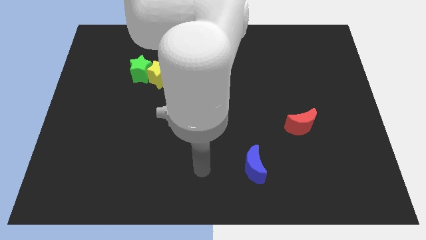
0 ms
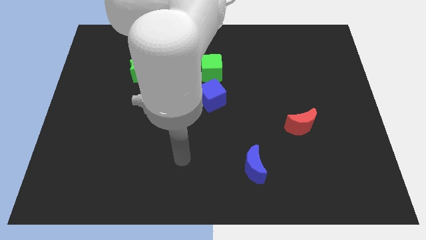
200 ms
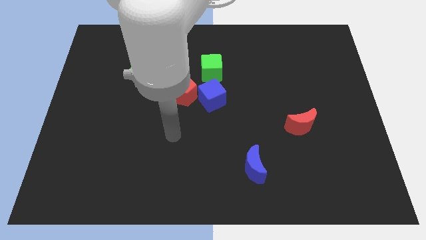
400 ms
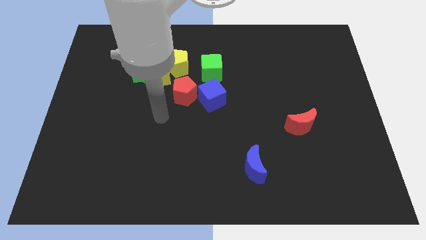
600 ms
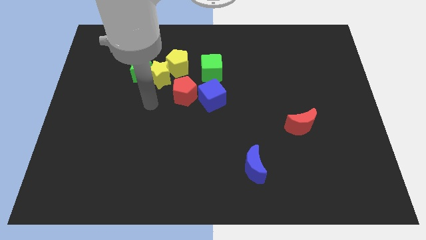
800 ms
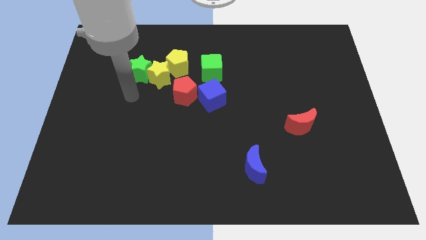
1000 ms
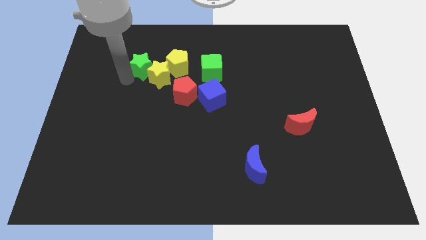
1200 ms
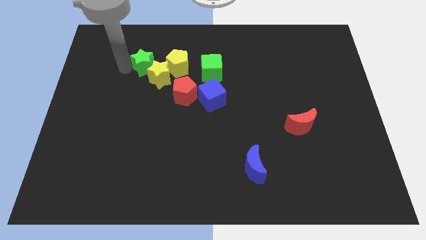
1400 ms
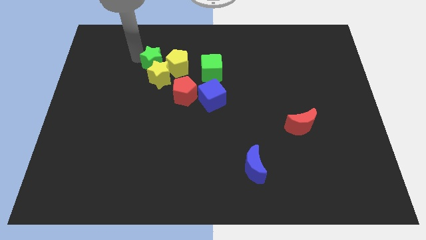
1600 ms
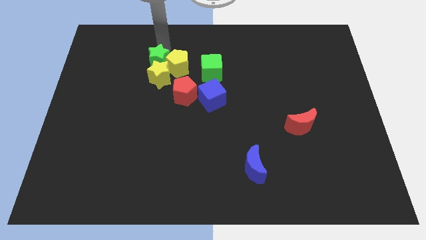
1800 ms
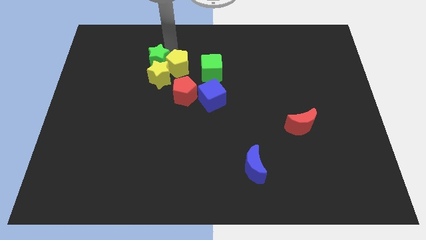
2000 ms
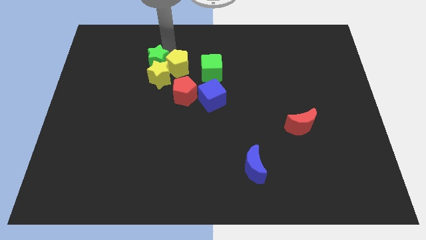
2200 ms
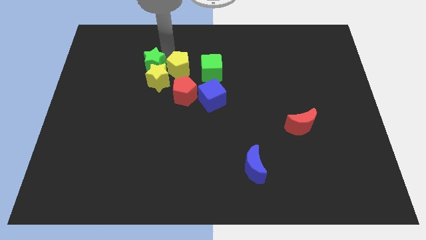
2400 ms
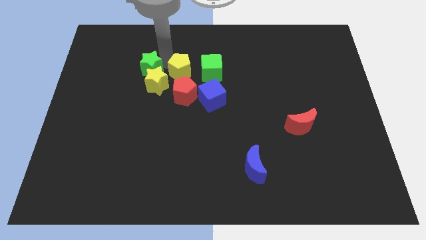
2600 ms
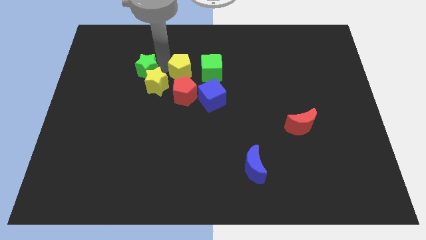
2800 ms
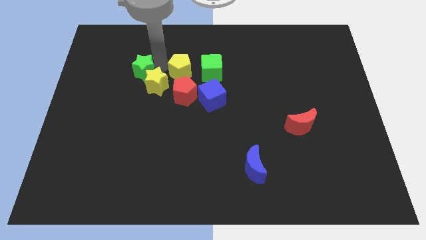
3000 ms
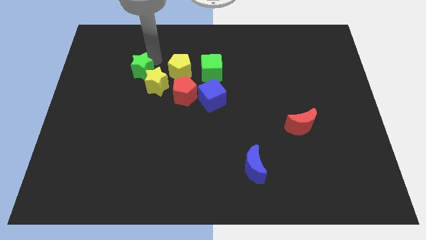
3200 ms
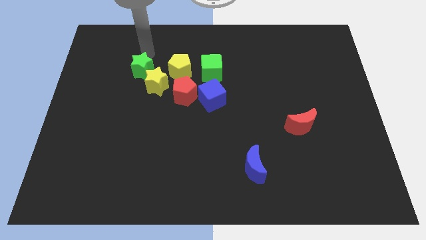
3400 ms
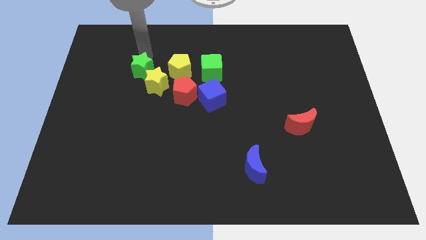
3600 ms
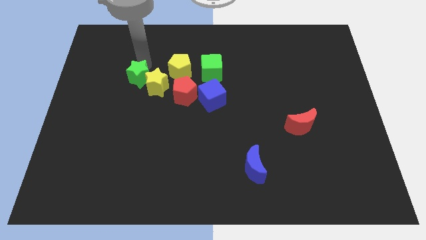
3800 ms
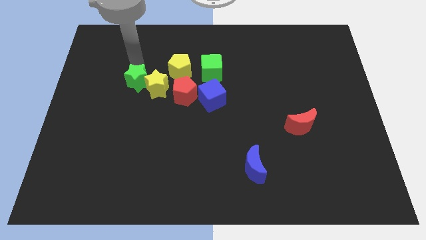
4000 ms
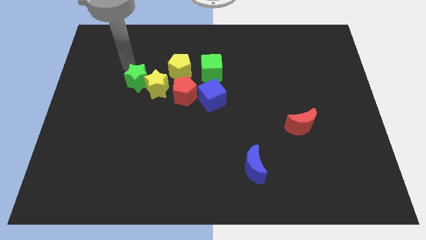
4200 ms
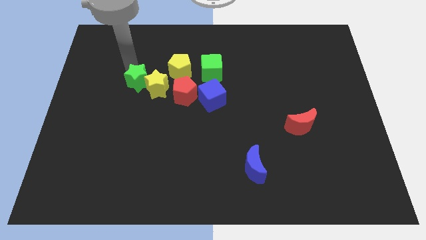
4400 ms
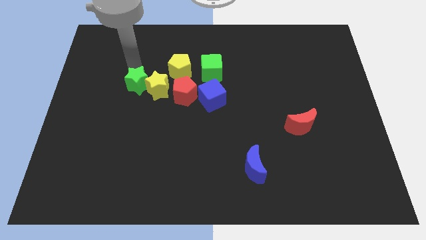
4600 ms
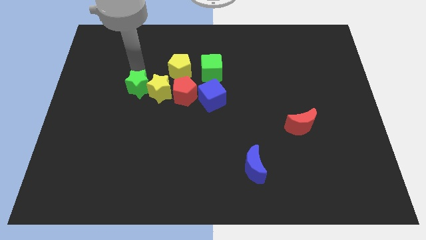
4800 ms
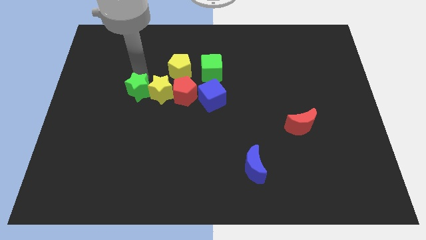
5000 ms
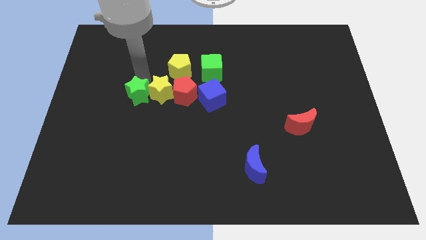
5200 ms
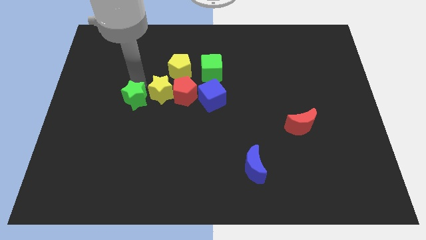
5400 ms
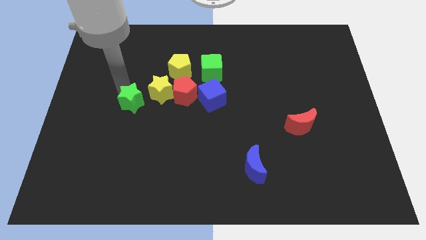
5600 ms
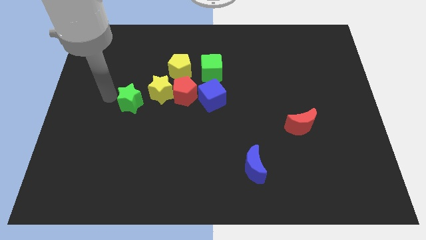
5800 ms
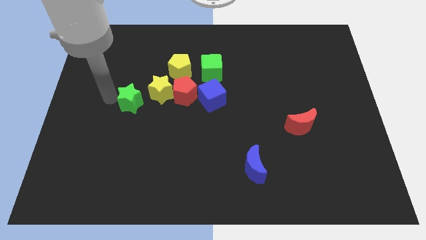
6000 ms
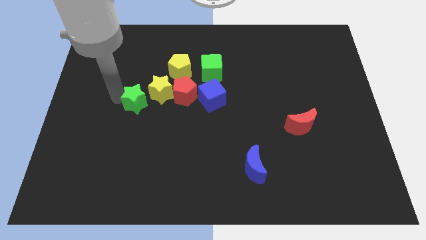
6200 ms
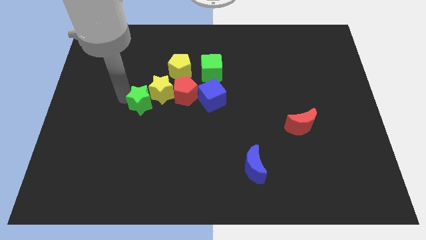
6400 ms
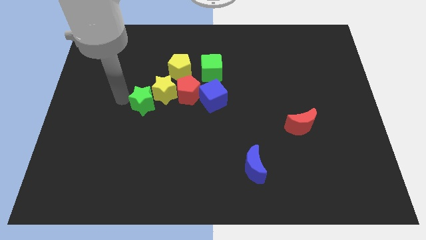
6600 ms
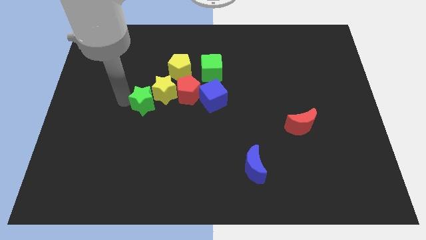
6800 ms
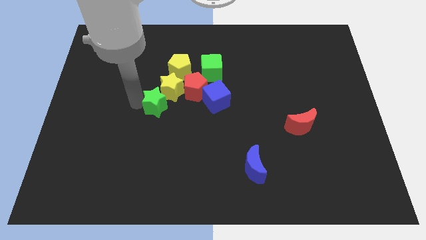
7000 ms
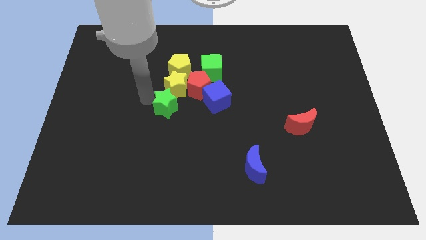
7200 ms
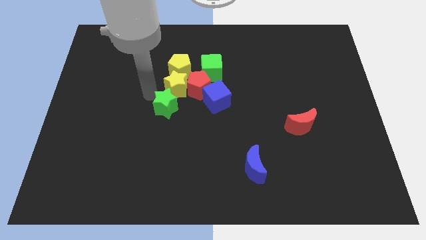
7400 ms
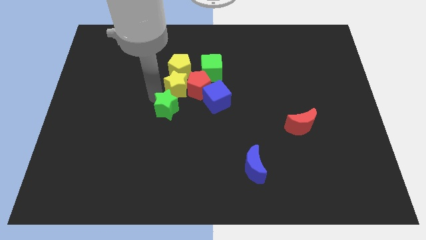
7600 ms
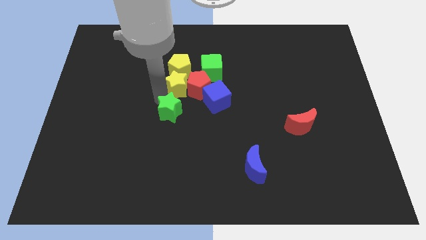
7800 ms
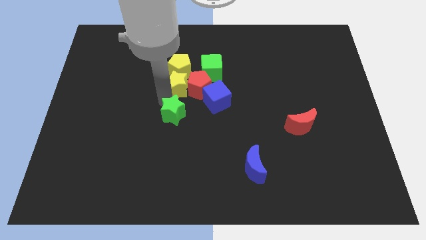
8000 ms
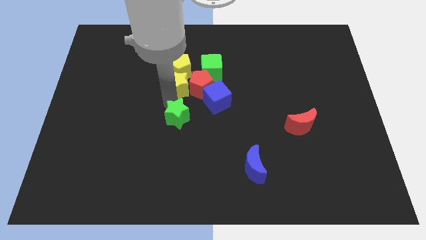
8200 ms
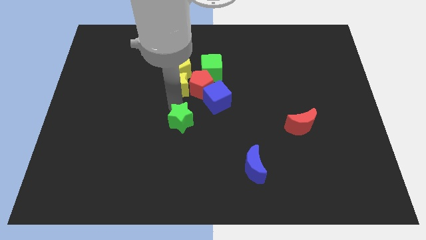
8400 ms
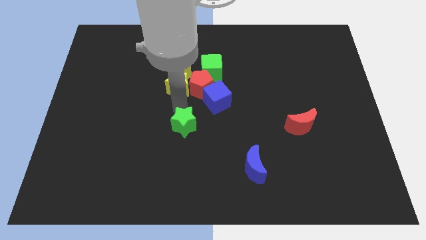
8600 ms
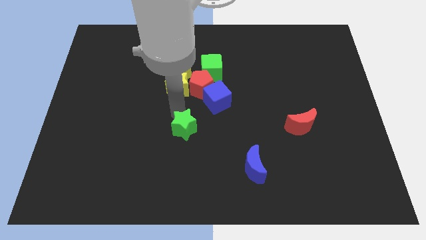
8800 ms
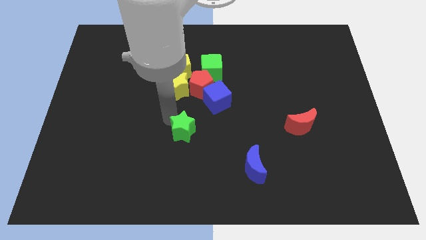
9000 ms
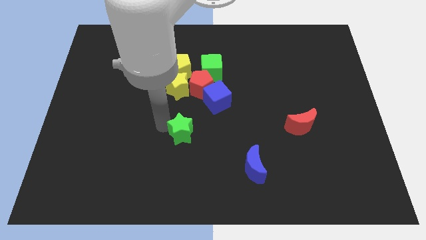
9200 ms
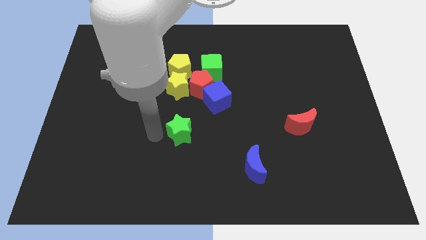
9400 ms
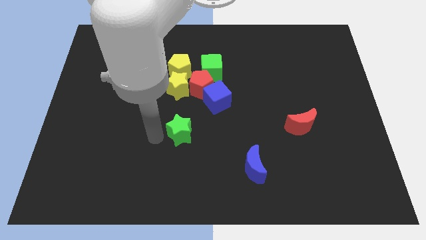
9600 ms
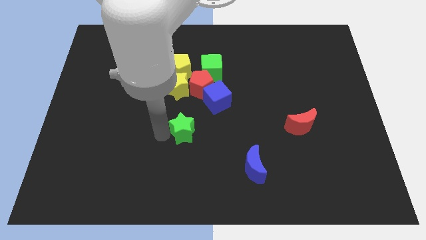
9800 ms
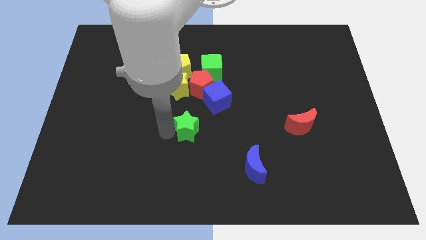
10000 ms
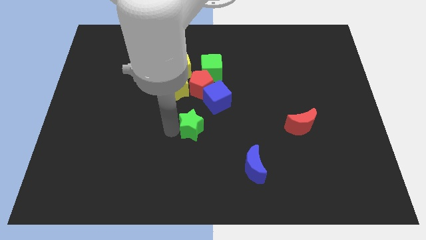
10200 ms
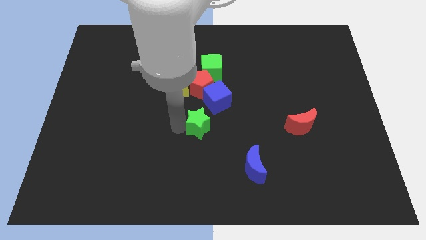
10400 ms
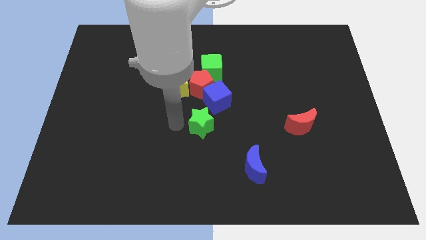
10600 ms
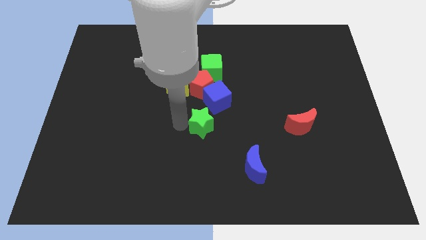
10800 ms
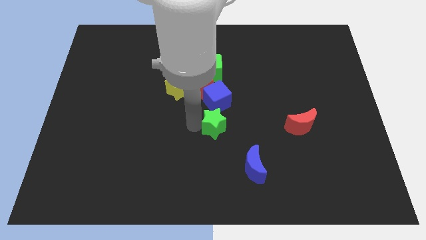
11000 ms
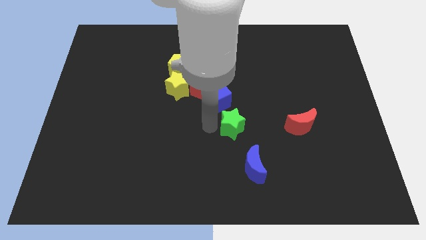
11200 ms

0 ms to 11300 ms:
put the green star just left of the red moon

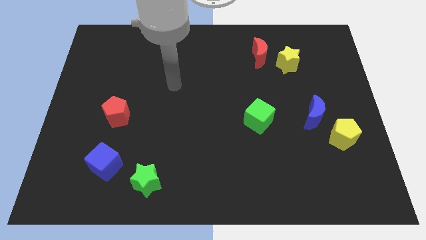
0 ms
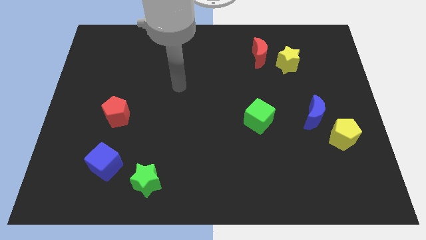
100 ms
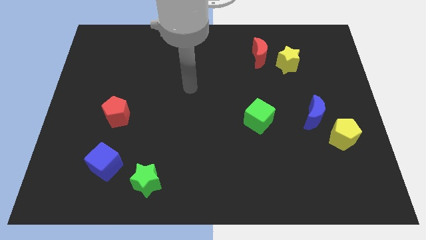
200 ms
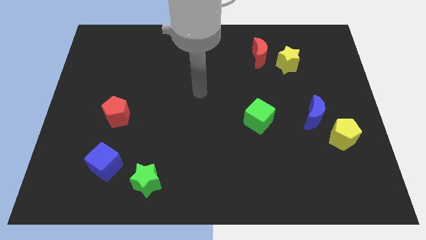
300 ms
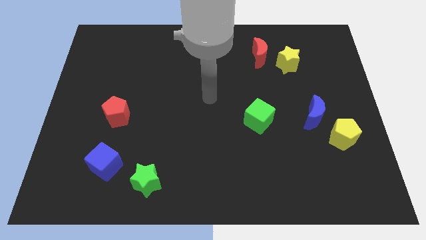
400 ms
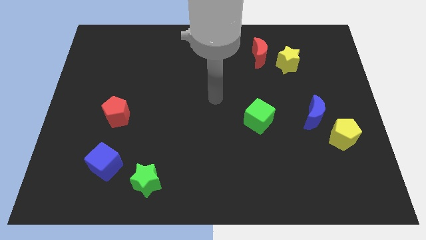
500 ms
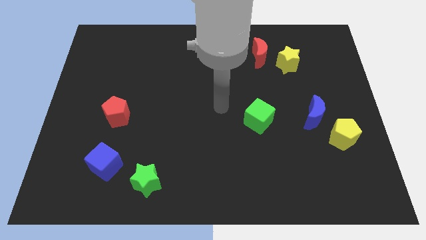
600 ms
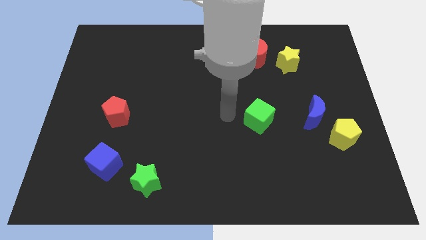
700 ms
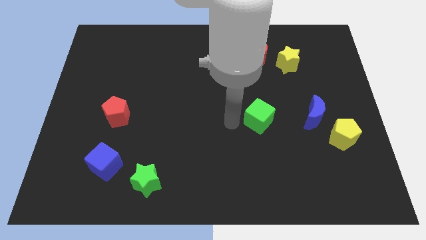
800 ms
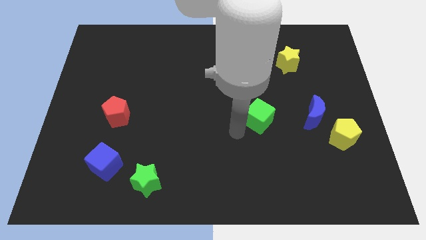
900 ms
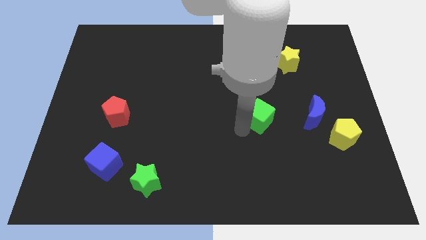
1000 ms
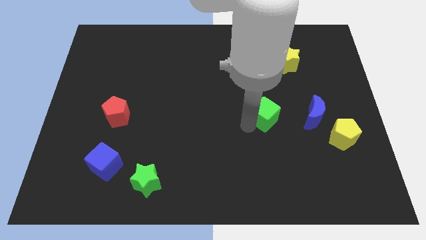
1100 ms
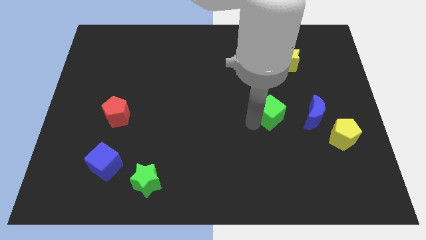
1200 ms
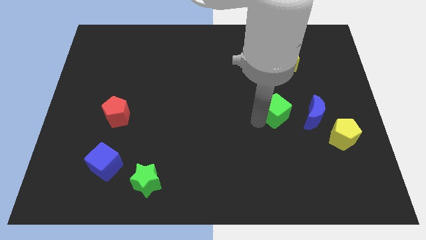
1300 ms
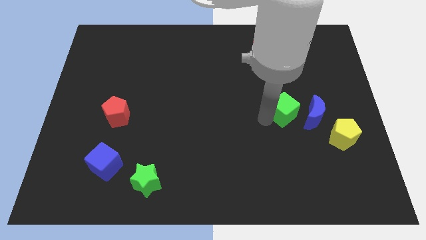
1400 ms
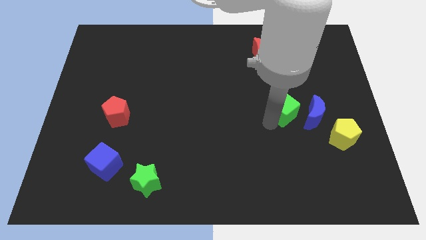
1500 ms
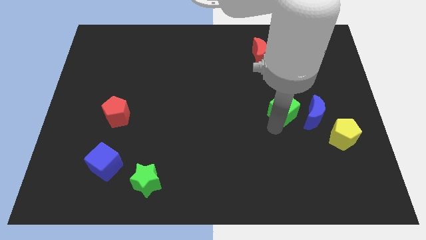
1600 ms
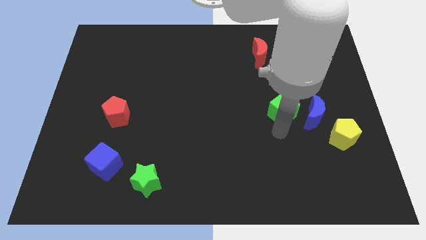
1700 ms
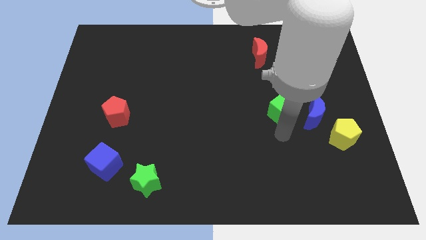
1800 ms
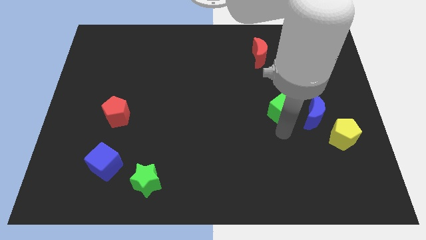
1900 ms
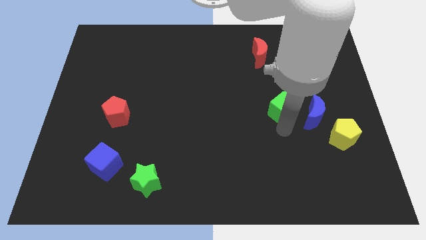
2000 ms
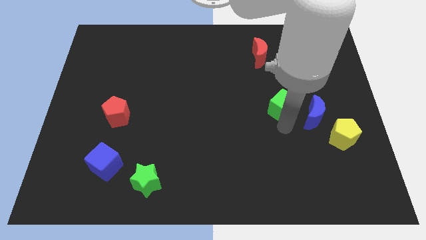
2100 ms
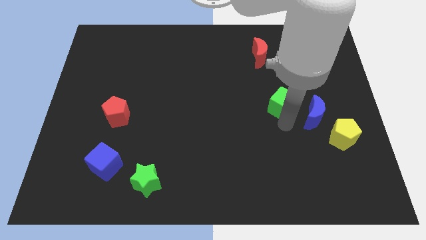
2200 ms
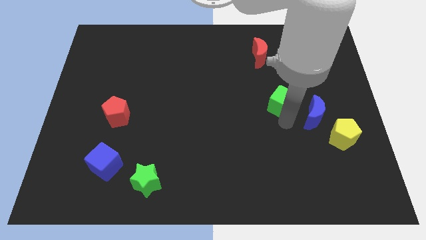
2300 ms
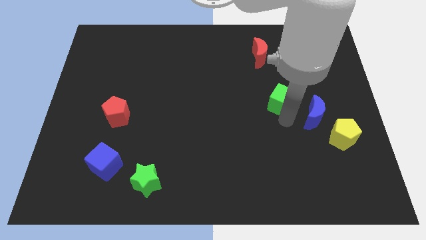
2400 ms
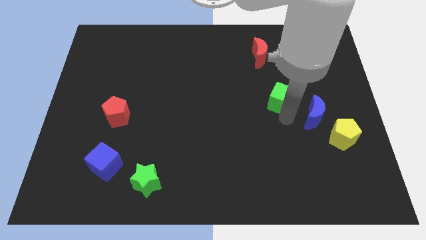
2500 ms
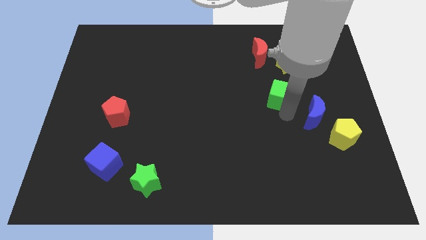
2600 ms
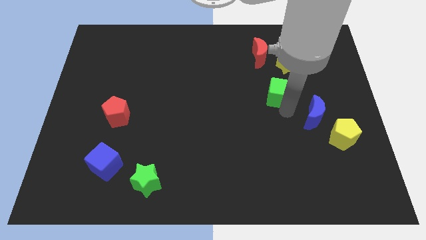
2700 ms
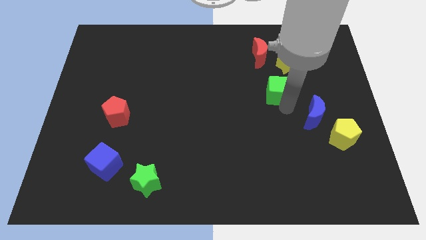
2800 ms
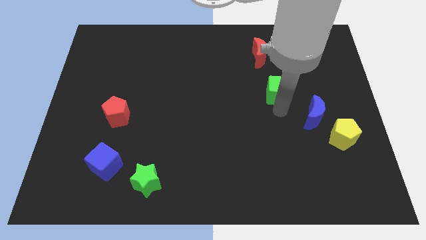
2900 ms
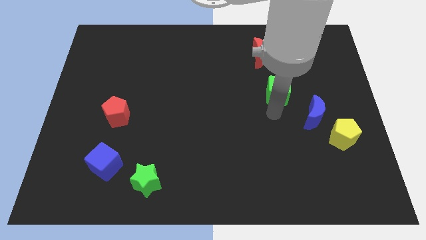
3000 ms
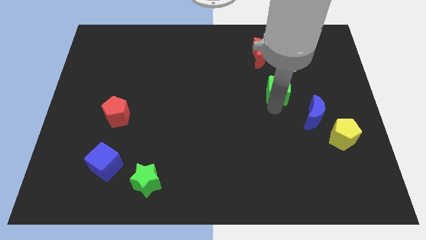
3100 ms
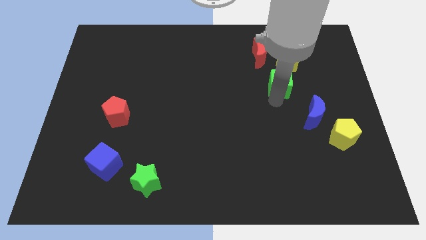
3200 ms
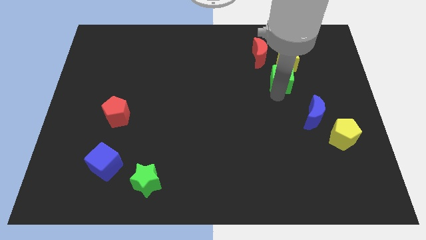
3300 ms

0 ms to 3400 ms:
put the green cube to the bottom right side of the red moon
